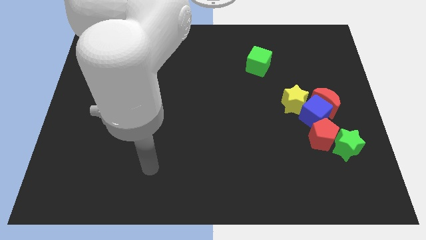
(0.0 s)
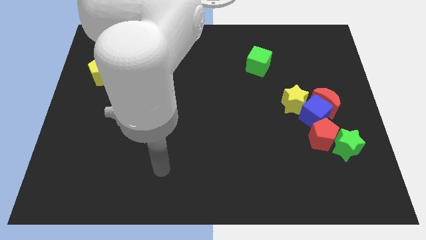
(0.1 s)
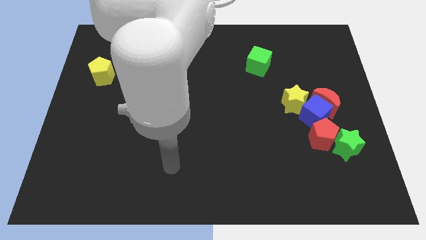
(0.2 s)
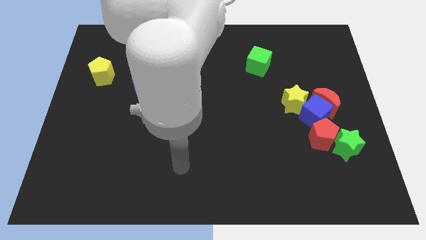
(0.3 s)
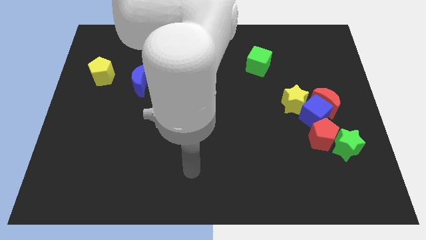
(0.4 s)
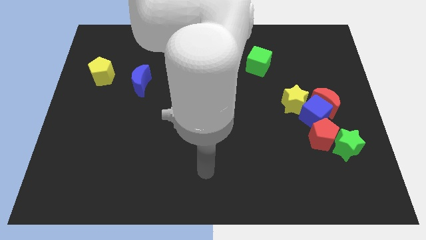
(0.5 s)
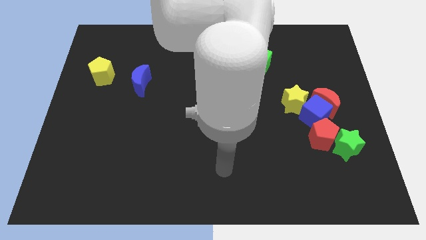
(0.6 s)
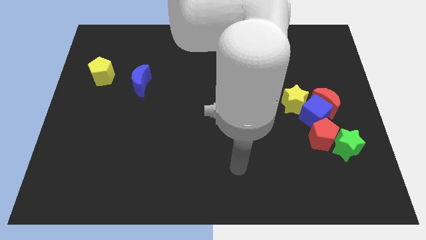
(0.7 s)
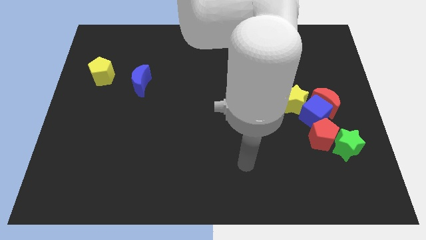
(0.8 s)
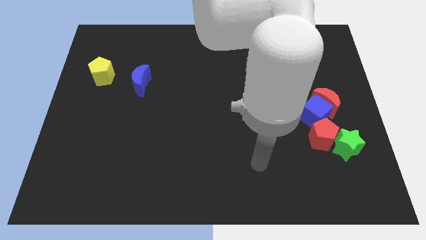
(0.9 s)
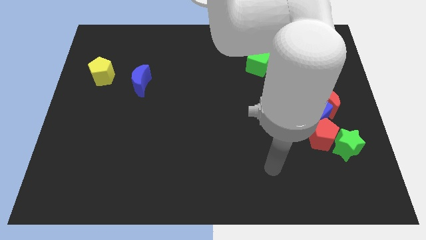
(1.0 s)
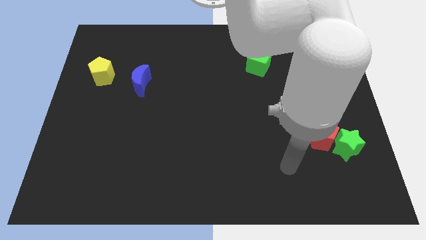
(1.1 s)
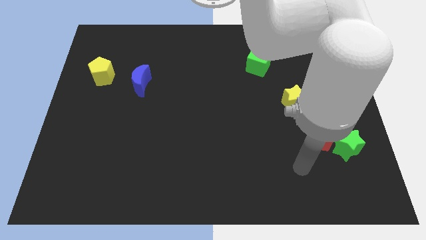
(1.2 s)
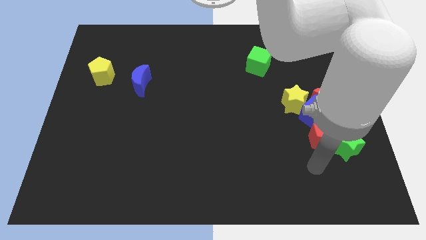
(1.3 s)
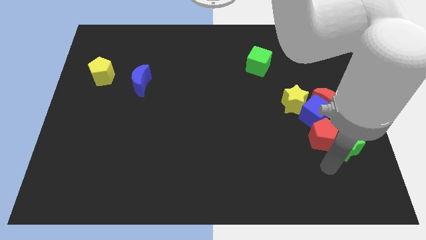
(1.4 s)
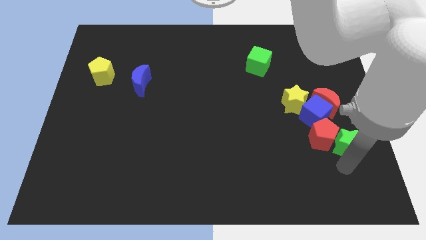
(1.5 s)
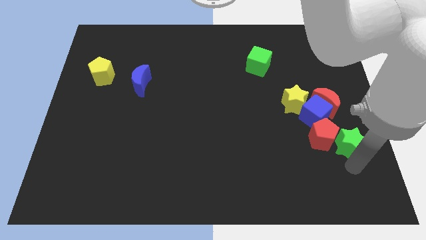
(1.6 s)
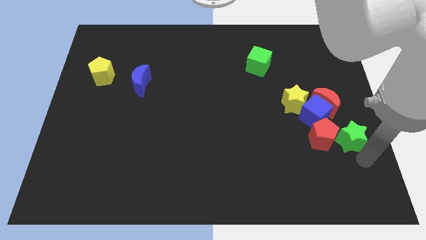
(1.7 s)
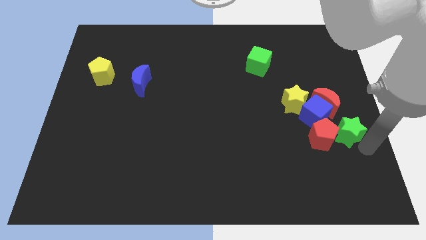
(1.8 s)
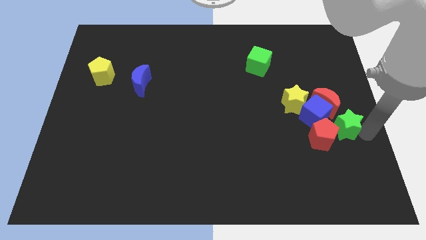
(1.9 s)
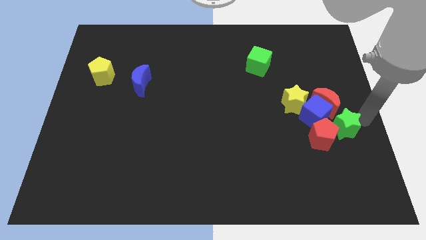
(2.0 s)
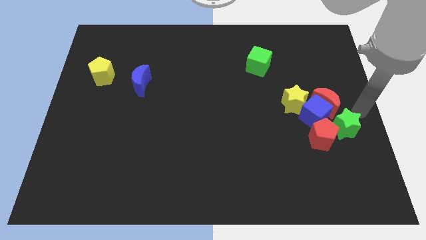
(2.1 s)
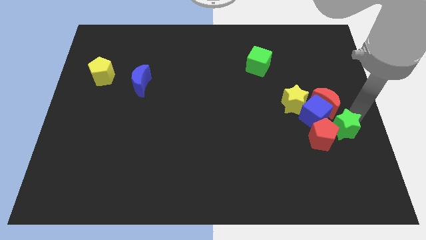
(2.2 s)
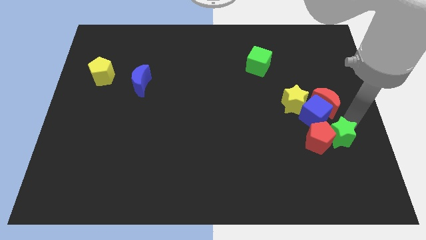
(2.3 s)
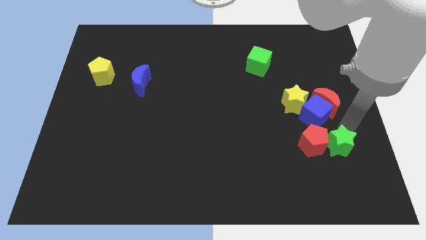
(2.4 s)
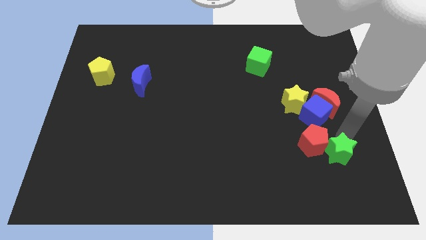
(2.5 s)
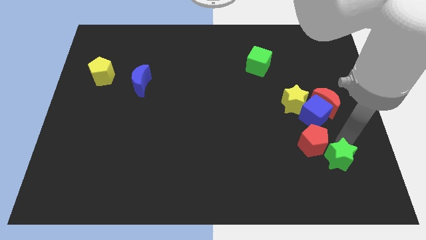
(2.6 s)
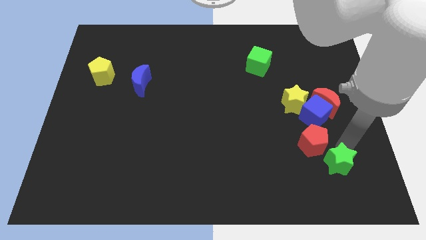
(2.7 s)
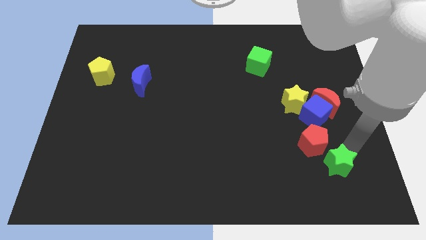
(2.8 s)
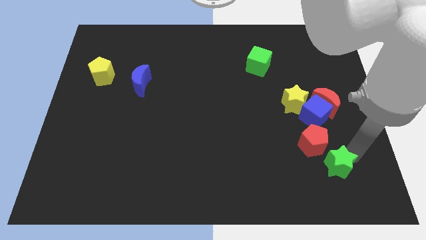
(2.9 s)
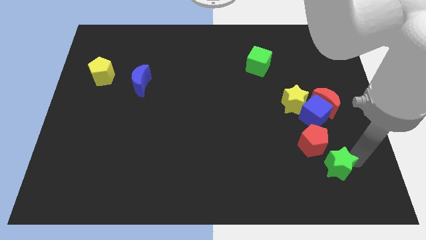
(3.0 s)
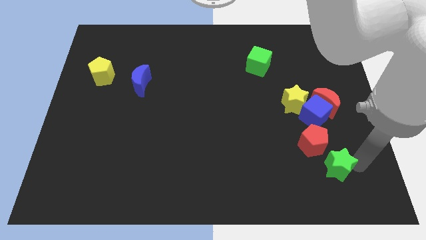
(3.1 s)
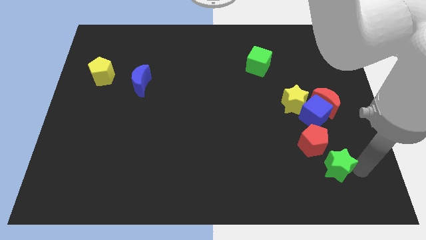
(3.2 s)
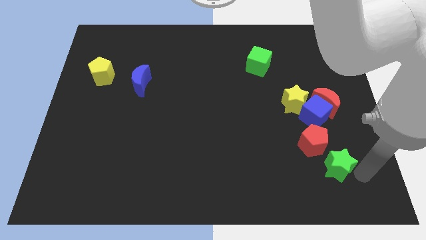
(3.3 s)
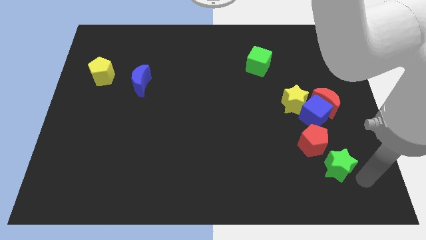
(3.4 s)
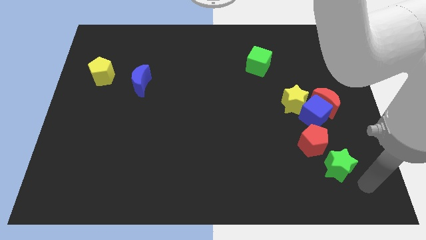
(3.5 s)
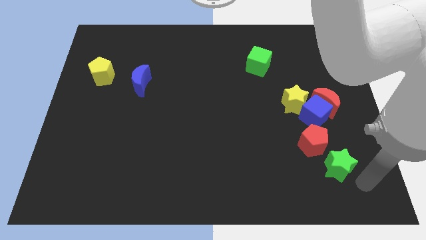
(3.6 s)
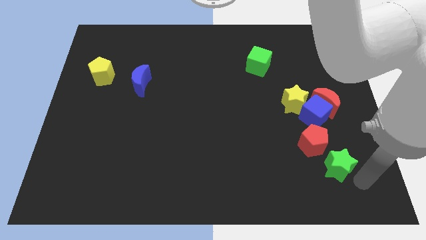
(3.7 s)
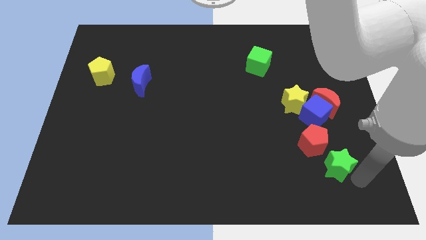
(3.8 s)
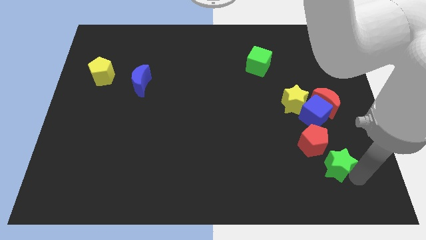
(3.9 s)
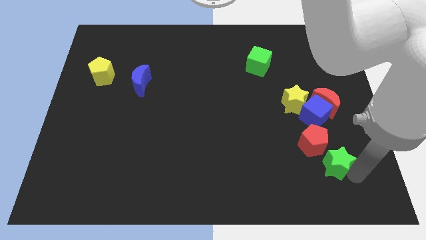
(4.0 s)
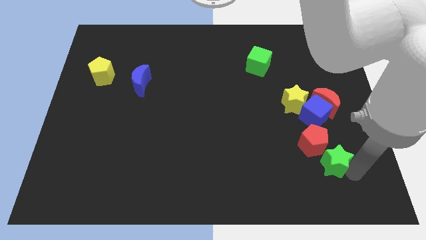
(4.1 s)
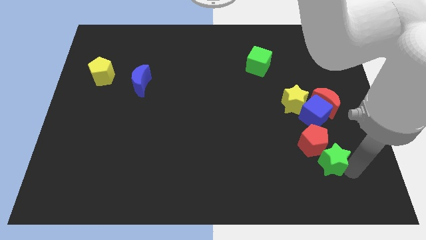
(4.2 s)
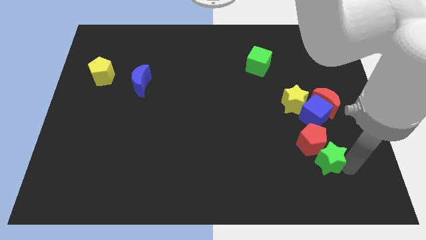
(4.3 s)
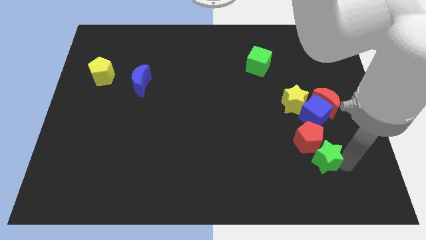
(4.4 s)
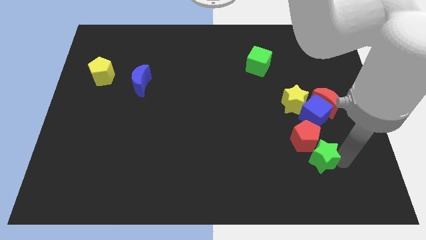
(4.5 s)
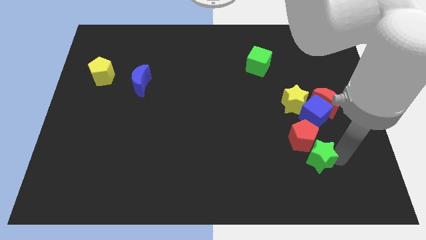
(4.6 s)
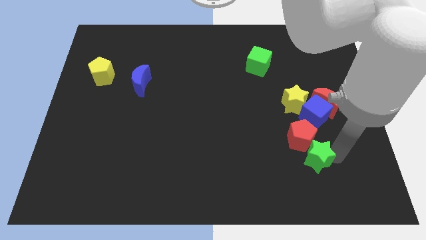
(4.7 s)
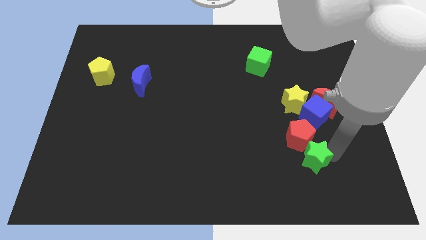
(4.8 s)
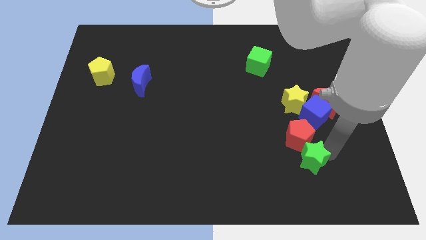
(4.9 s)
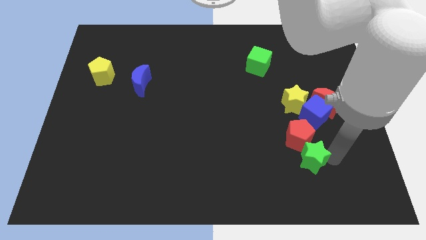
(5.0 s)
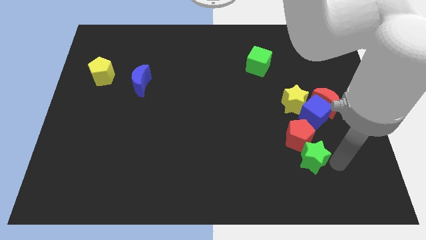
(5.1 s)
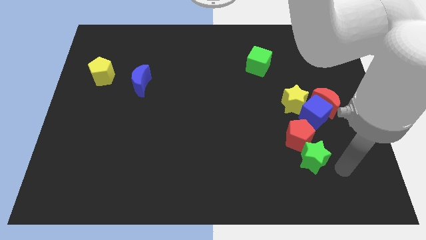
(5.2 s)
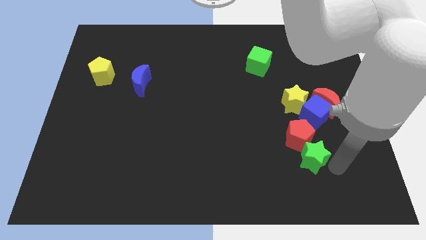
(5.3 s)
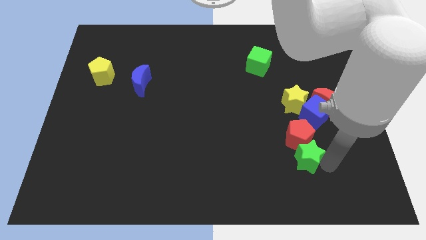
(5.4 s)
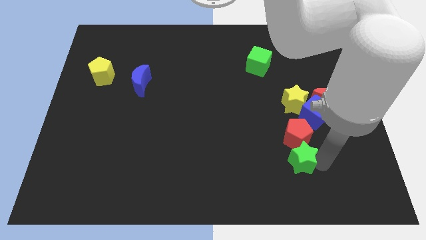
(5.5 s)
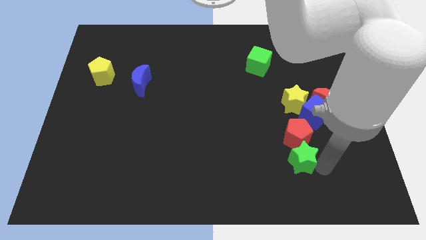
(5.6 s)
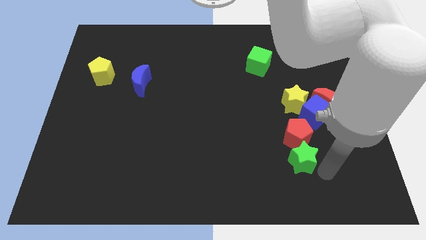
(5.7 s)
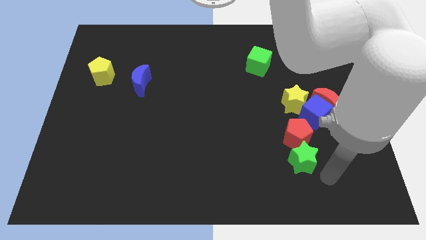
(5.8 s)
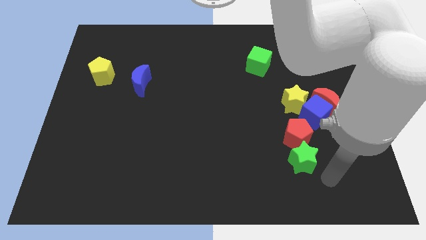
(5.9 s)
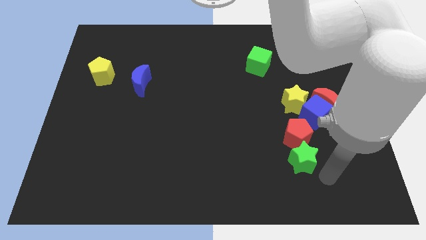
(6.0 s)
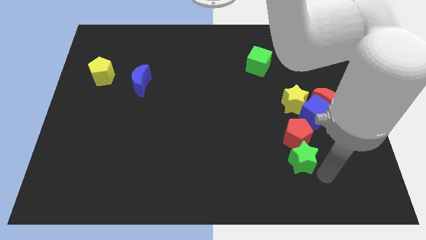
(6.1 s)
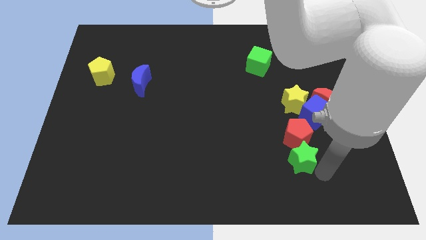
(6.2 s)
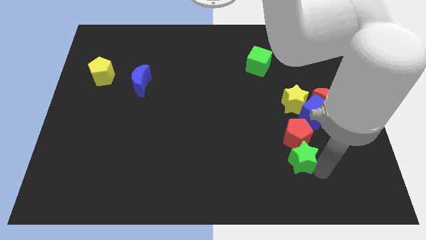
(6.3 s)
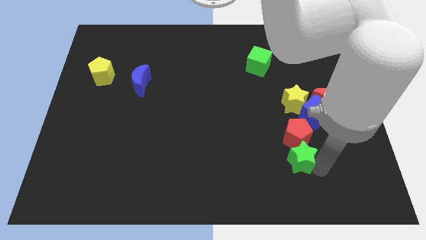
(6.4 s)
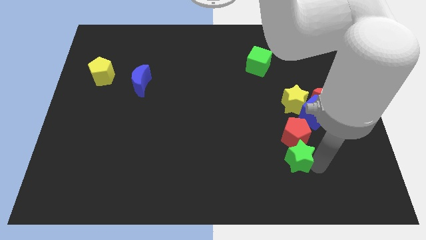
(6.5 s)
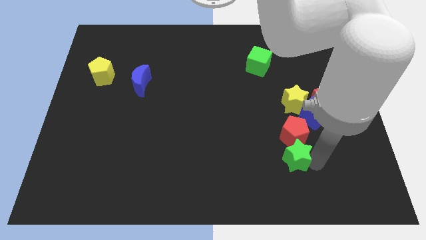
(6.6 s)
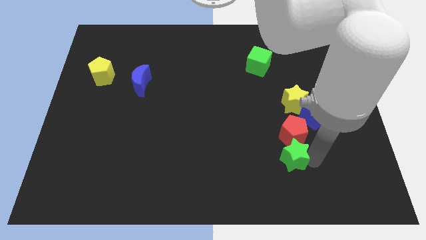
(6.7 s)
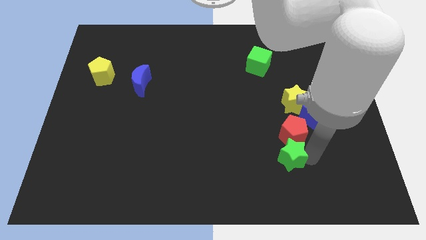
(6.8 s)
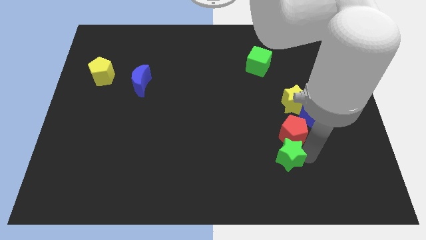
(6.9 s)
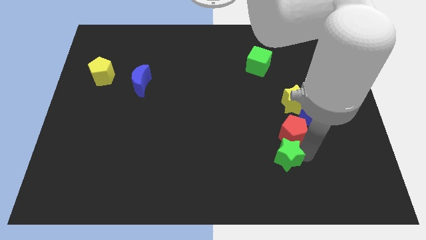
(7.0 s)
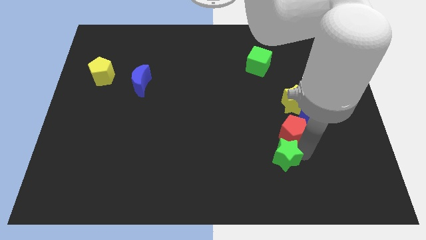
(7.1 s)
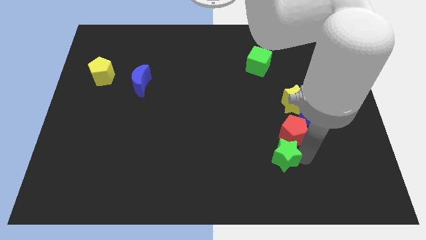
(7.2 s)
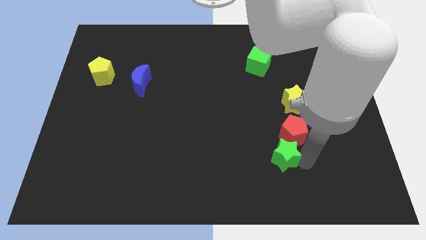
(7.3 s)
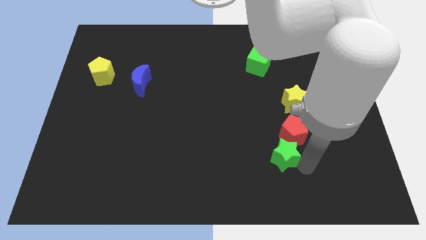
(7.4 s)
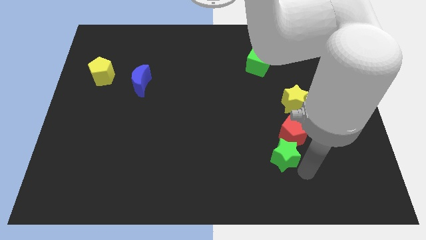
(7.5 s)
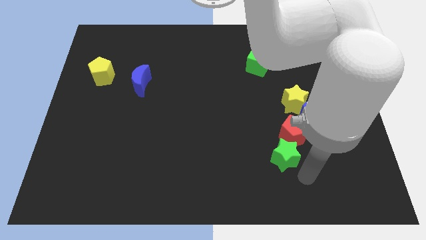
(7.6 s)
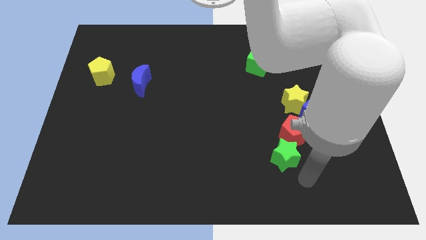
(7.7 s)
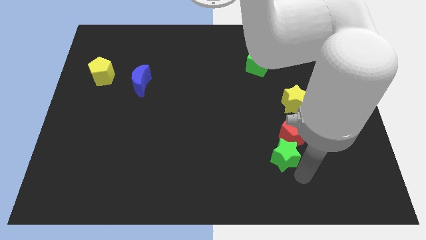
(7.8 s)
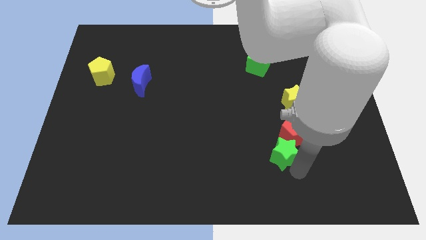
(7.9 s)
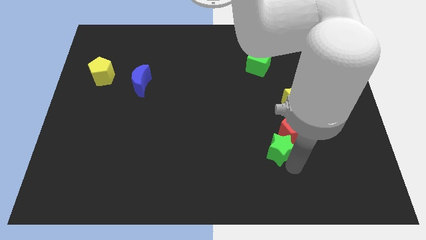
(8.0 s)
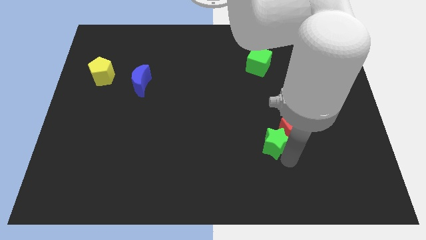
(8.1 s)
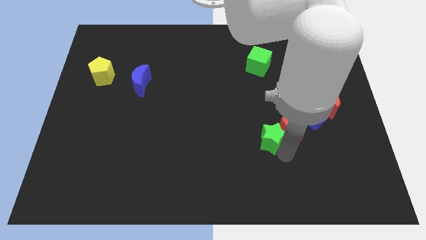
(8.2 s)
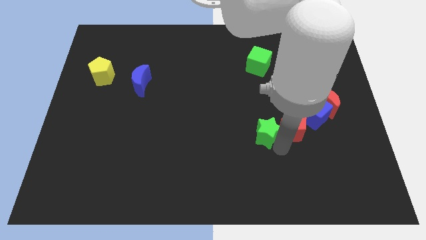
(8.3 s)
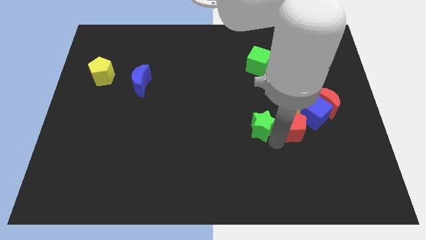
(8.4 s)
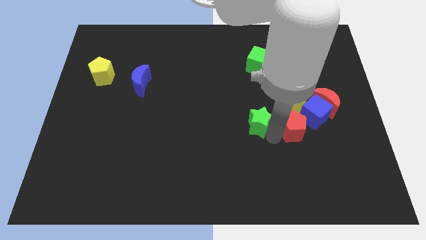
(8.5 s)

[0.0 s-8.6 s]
push the green star to the middle
